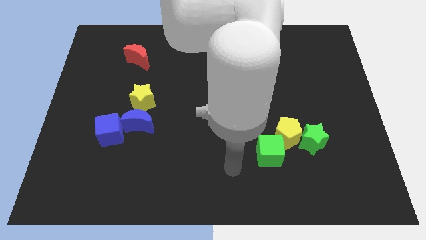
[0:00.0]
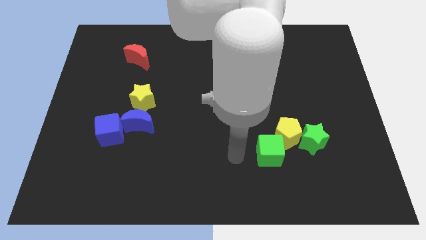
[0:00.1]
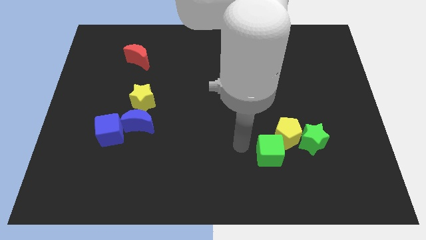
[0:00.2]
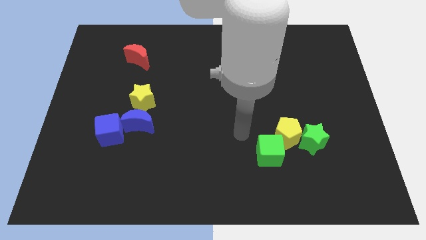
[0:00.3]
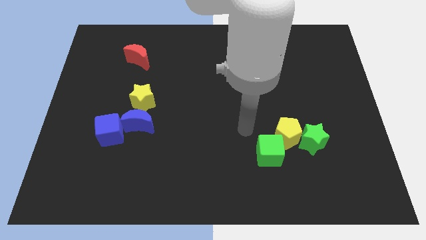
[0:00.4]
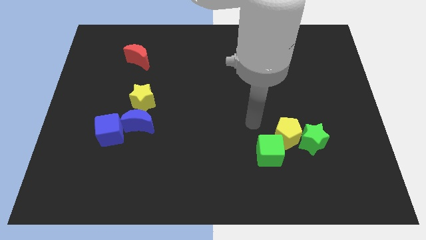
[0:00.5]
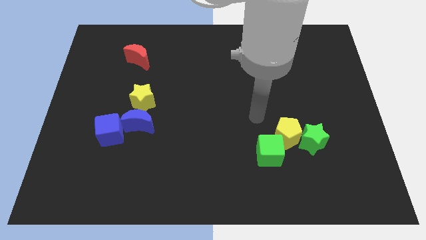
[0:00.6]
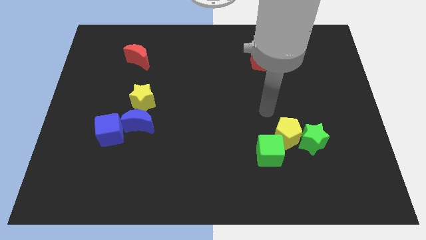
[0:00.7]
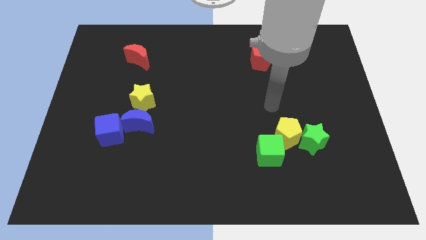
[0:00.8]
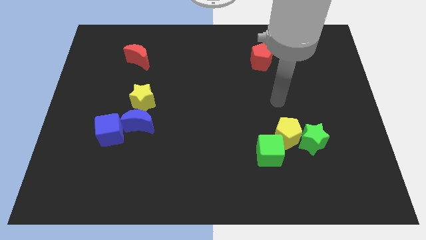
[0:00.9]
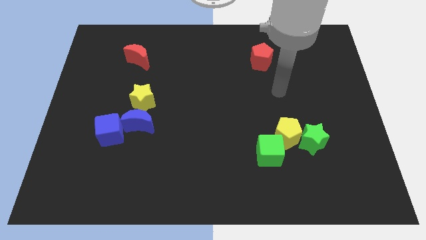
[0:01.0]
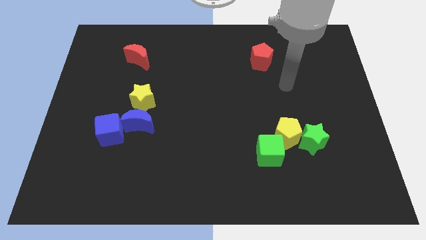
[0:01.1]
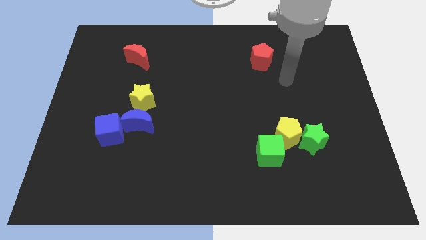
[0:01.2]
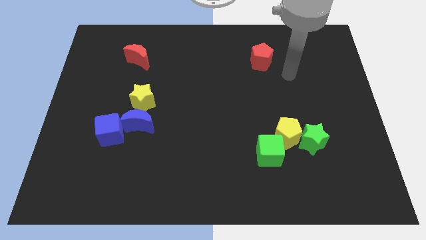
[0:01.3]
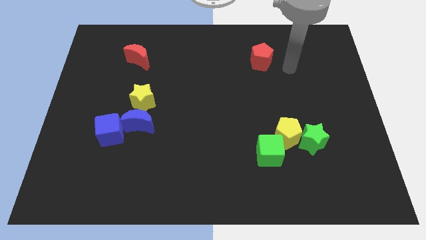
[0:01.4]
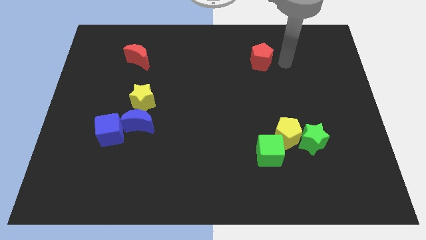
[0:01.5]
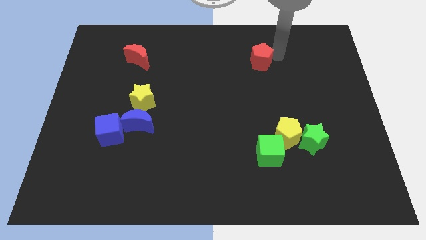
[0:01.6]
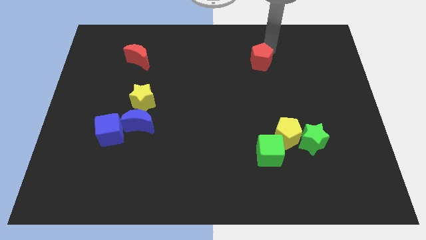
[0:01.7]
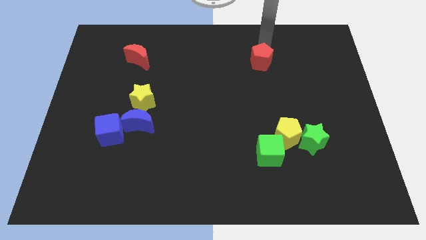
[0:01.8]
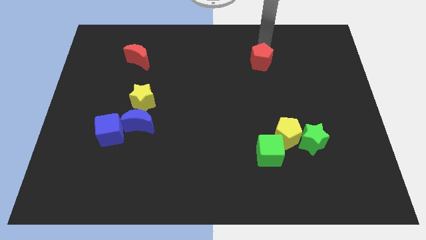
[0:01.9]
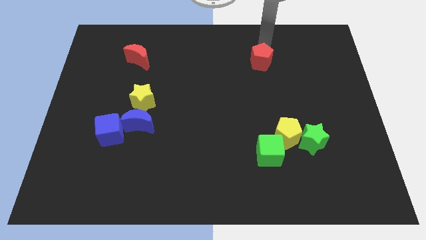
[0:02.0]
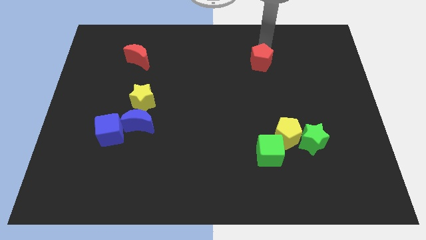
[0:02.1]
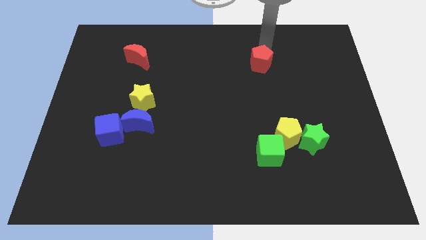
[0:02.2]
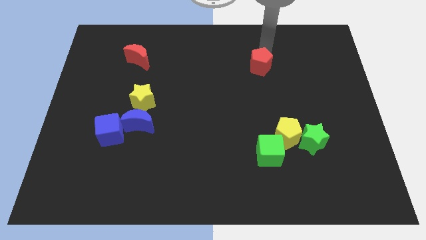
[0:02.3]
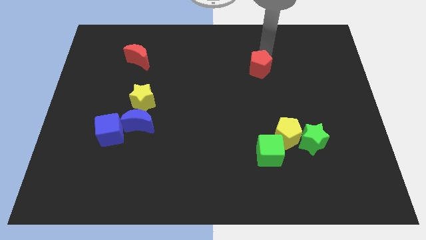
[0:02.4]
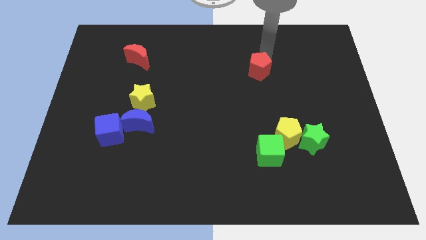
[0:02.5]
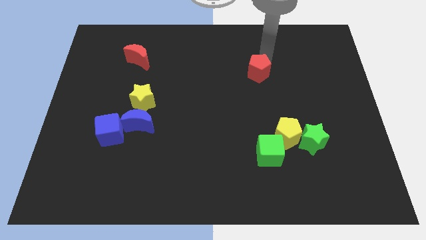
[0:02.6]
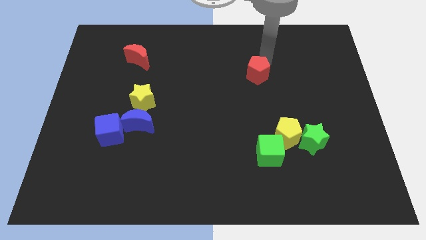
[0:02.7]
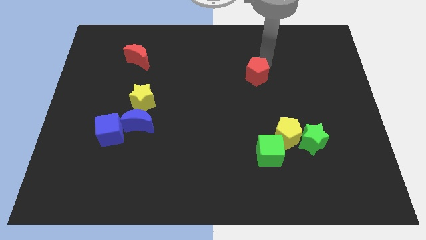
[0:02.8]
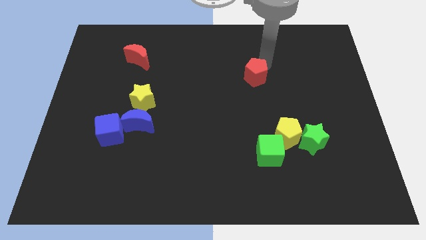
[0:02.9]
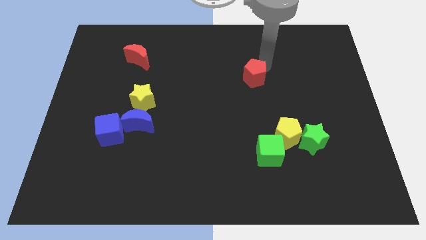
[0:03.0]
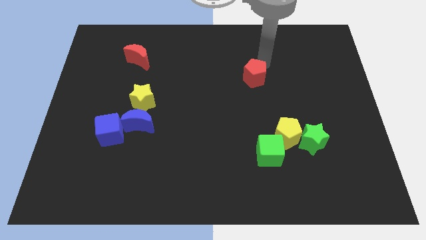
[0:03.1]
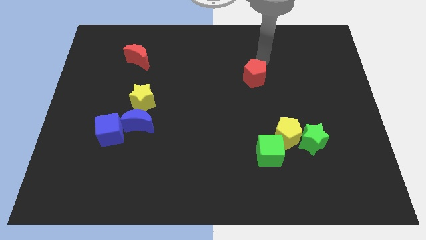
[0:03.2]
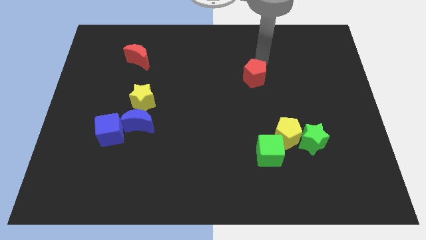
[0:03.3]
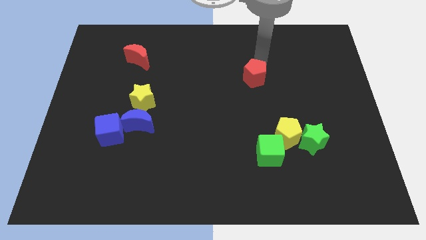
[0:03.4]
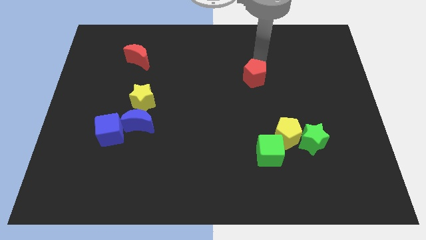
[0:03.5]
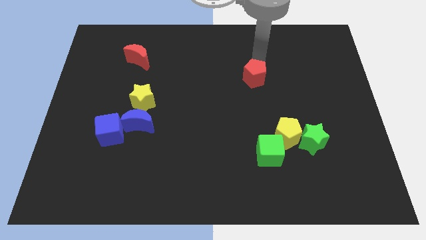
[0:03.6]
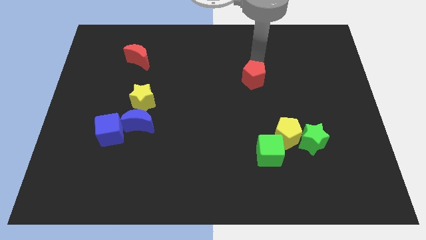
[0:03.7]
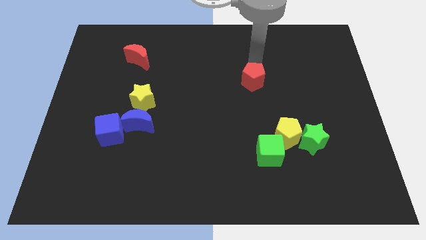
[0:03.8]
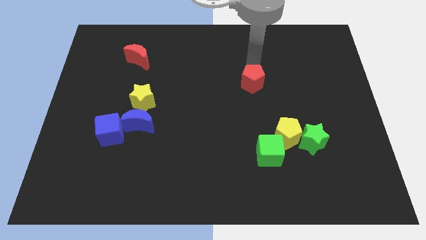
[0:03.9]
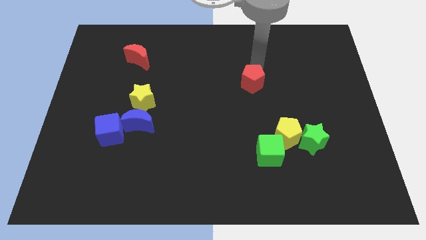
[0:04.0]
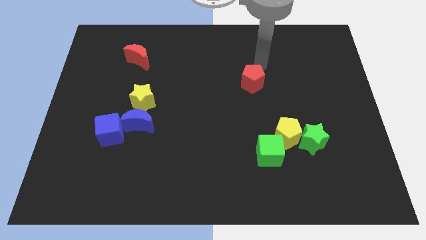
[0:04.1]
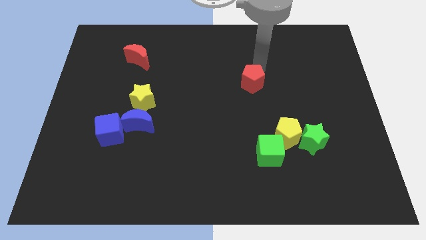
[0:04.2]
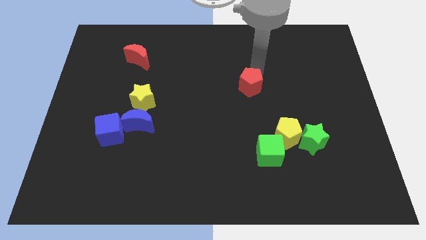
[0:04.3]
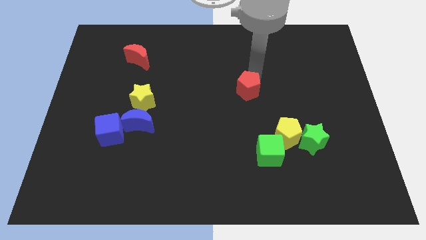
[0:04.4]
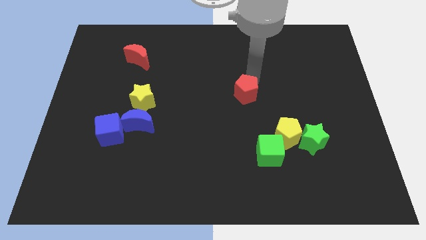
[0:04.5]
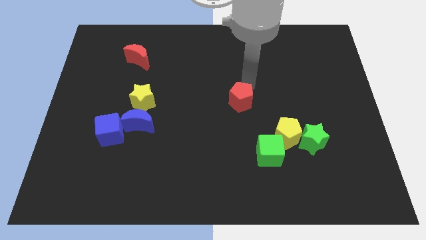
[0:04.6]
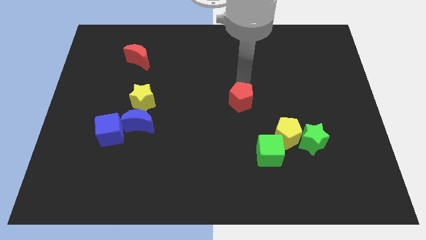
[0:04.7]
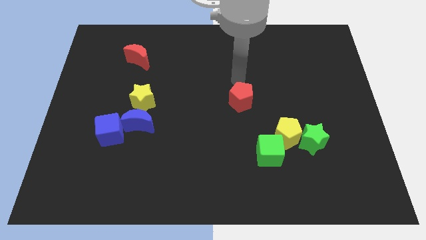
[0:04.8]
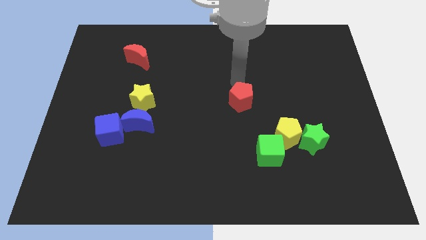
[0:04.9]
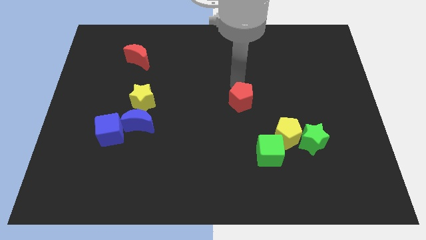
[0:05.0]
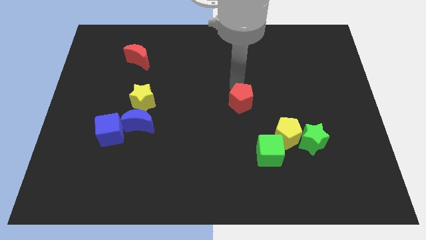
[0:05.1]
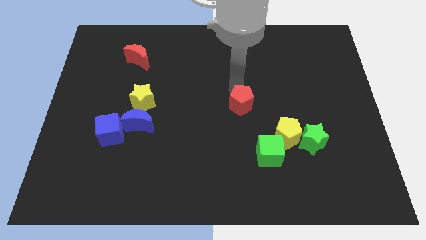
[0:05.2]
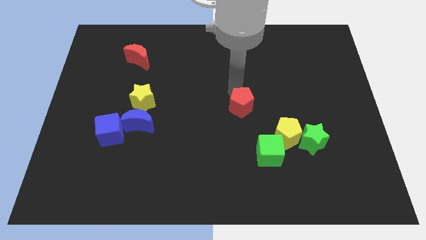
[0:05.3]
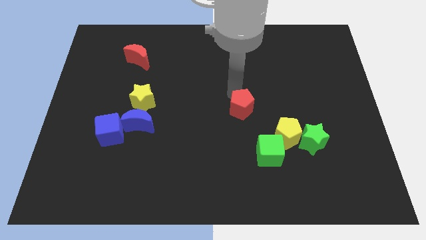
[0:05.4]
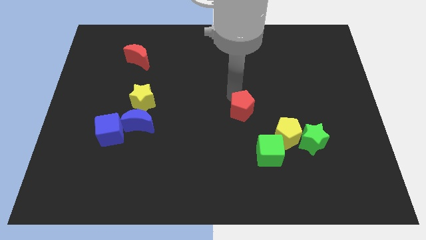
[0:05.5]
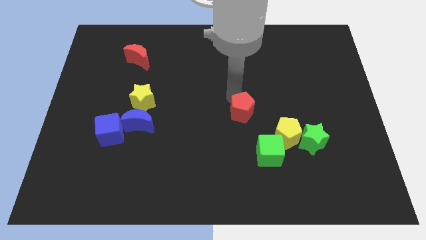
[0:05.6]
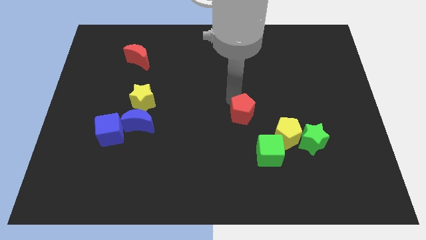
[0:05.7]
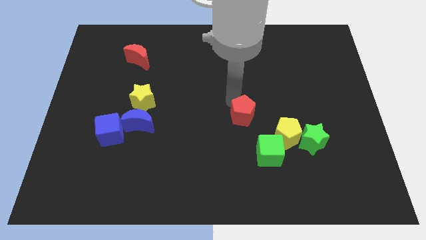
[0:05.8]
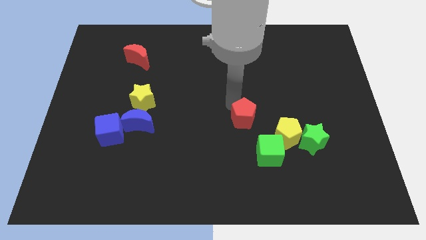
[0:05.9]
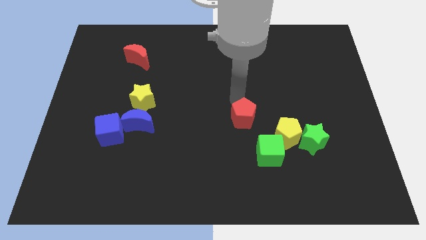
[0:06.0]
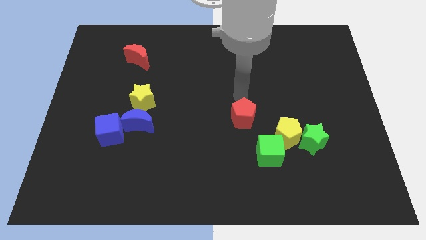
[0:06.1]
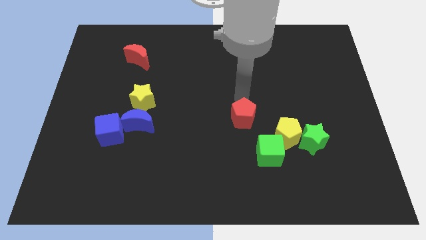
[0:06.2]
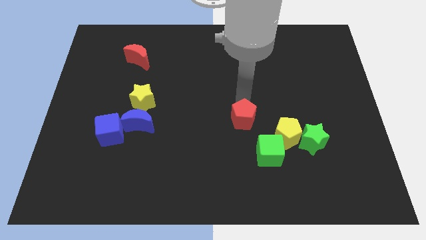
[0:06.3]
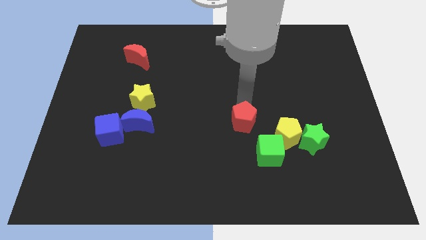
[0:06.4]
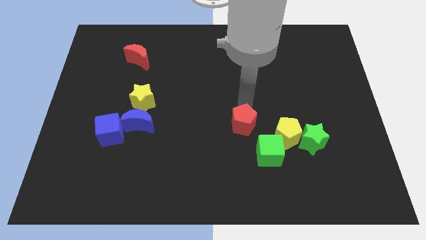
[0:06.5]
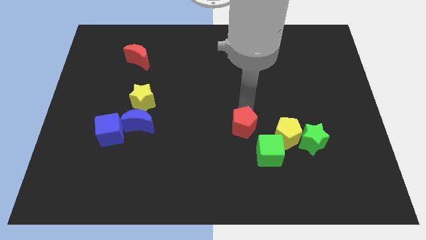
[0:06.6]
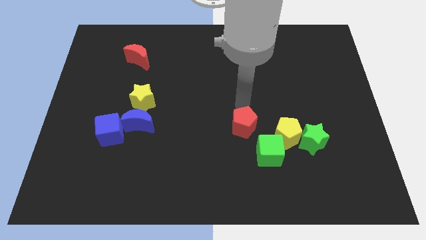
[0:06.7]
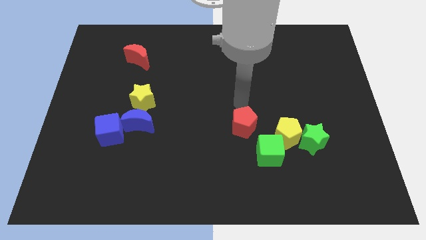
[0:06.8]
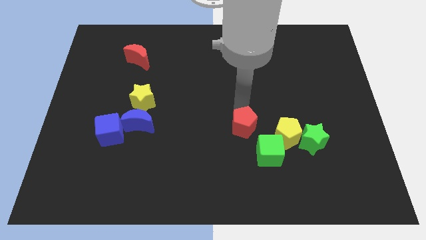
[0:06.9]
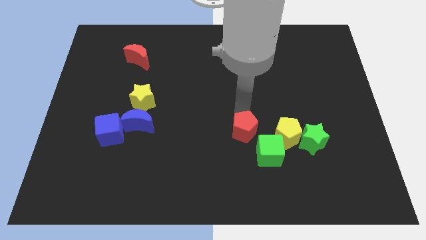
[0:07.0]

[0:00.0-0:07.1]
move the red pentagon down

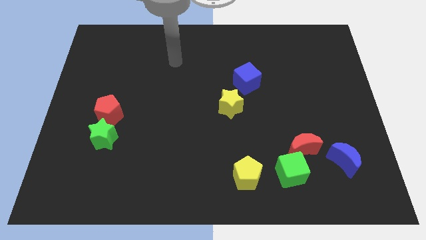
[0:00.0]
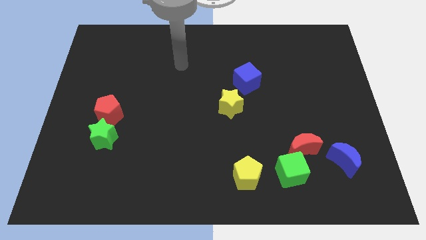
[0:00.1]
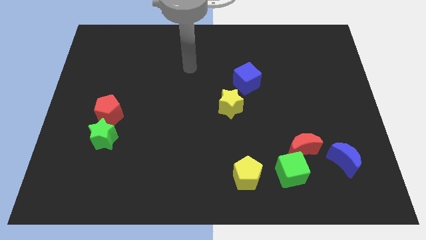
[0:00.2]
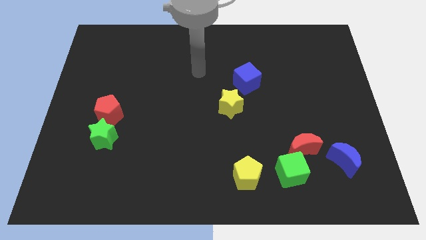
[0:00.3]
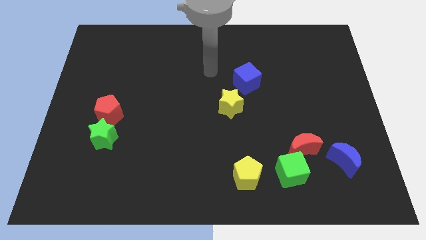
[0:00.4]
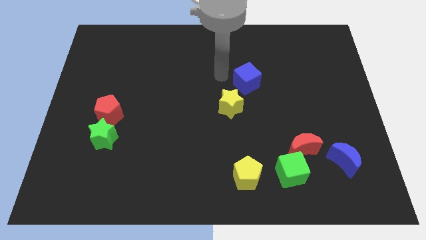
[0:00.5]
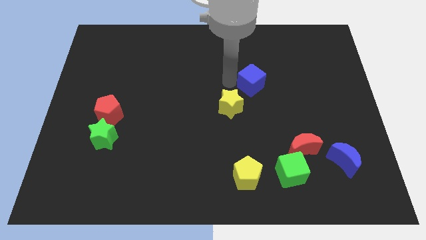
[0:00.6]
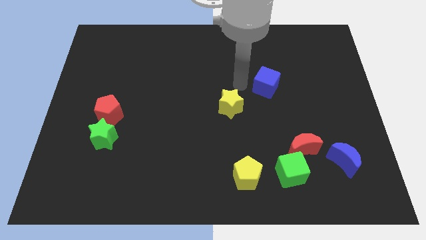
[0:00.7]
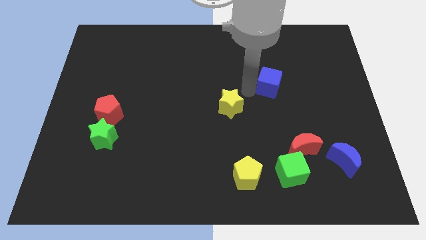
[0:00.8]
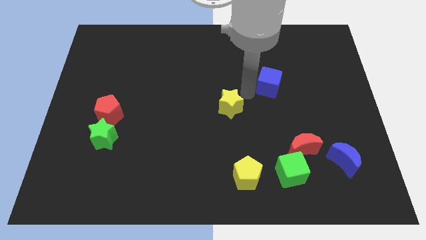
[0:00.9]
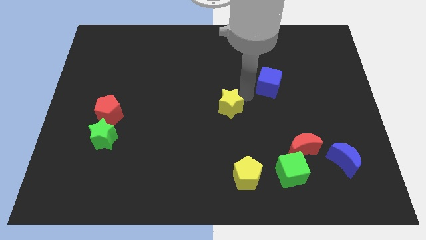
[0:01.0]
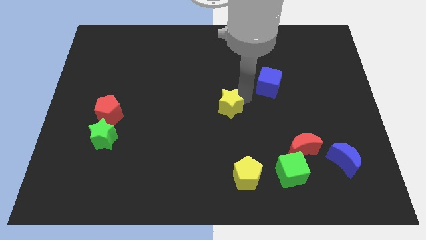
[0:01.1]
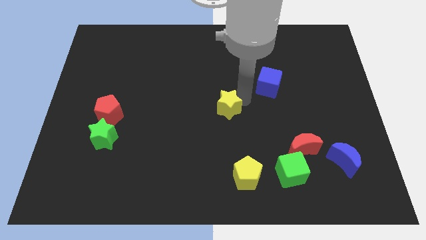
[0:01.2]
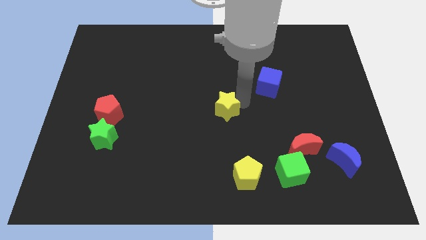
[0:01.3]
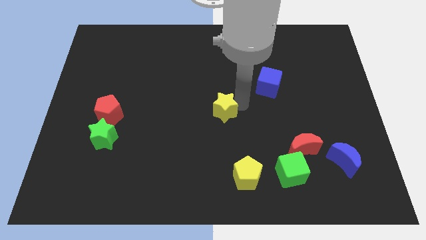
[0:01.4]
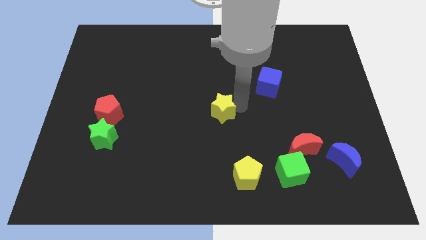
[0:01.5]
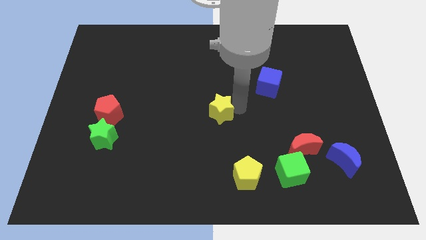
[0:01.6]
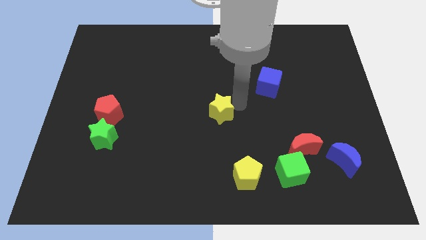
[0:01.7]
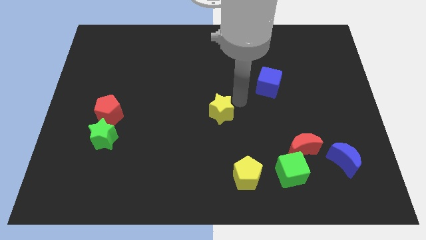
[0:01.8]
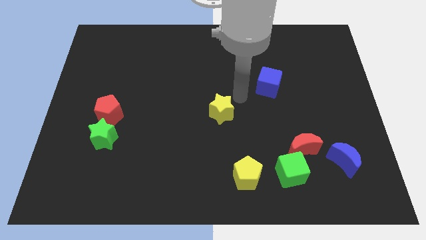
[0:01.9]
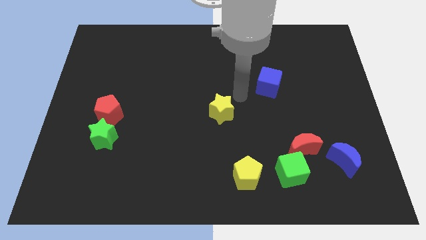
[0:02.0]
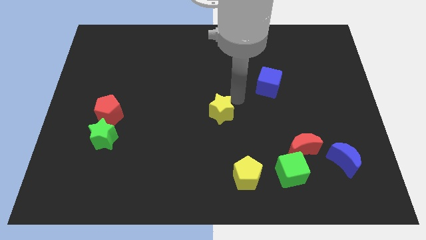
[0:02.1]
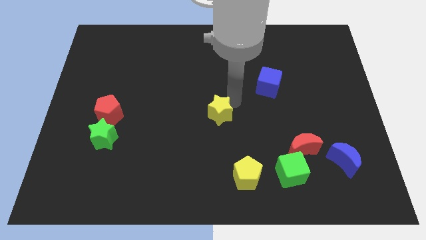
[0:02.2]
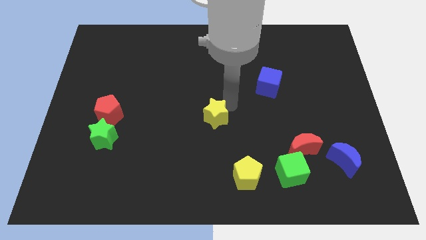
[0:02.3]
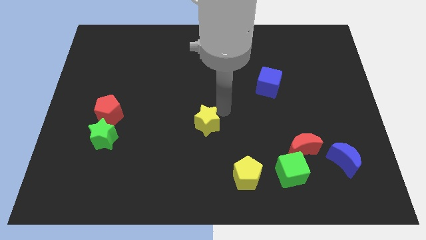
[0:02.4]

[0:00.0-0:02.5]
slide the yellow star down and to the left somewhat
